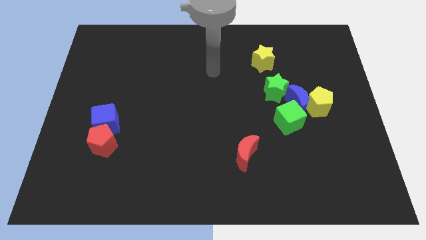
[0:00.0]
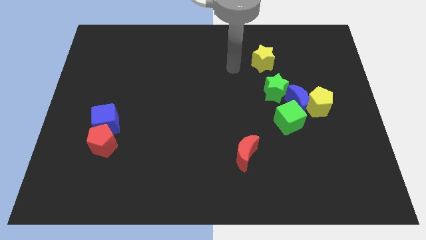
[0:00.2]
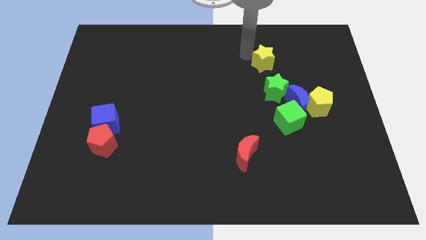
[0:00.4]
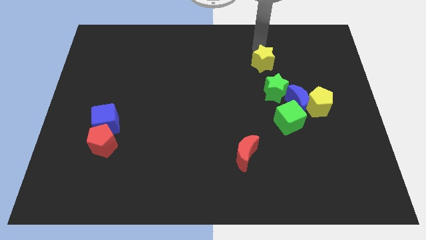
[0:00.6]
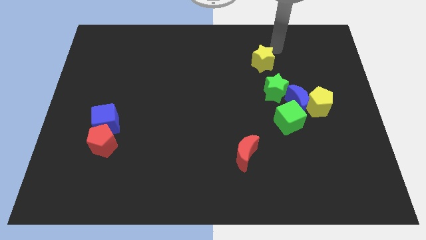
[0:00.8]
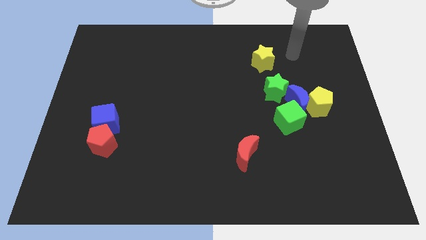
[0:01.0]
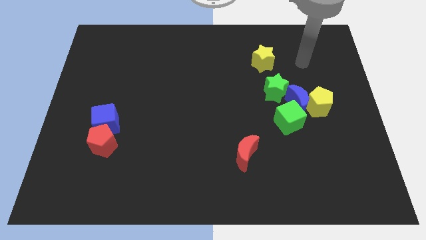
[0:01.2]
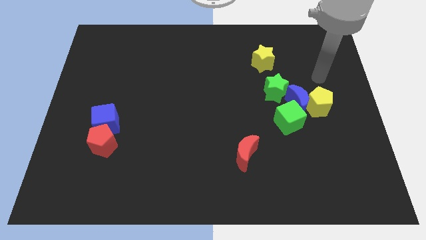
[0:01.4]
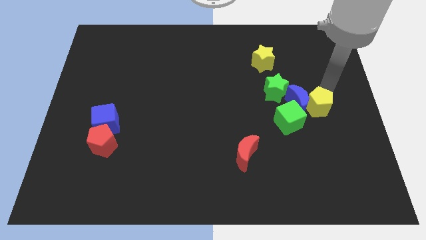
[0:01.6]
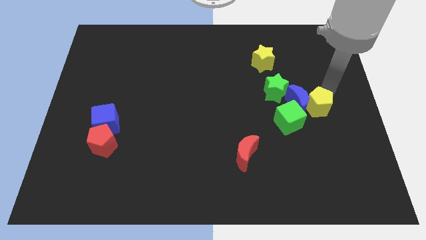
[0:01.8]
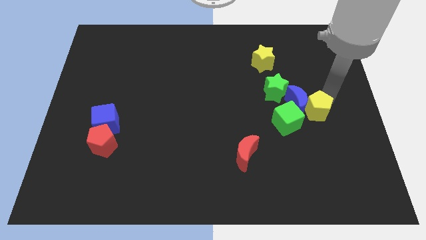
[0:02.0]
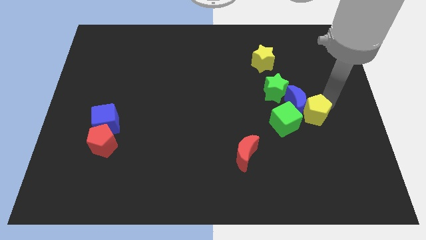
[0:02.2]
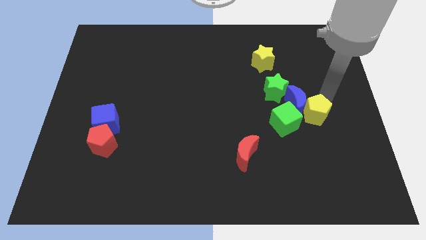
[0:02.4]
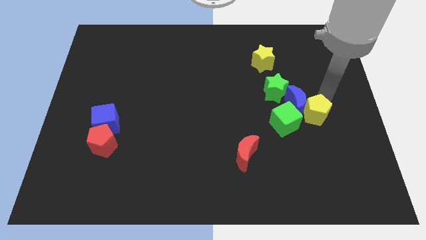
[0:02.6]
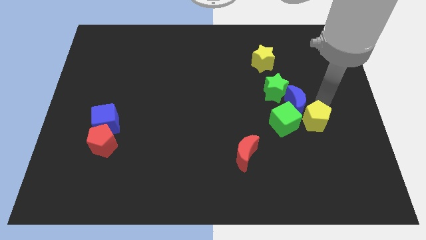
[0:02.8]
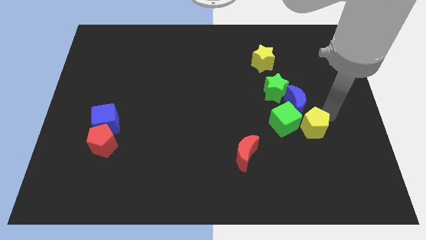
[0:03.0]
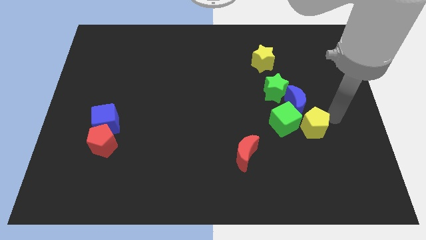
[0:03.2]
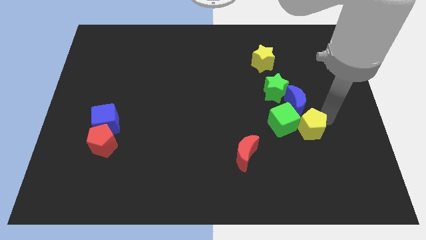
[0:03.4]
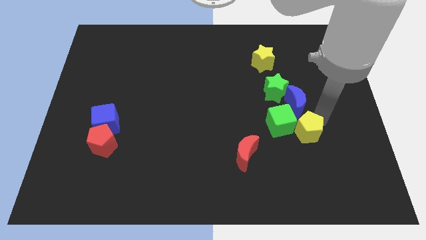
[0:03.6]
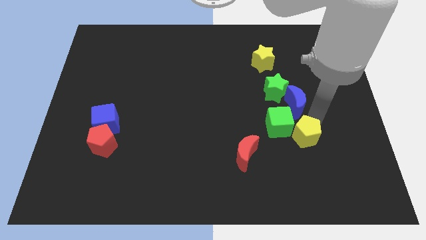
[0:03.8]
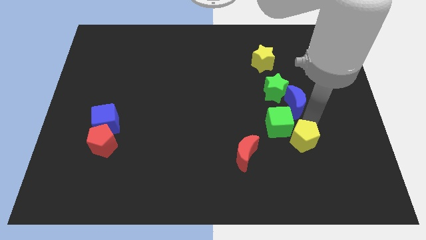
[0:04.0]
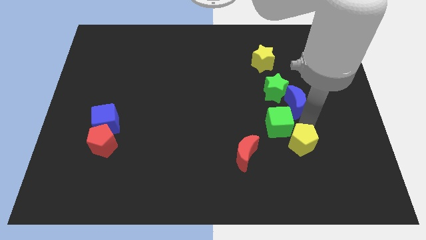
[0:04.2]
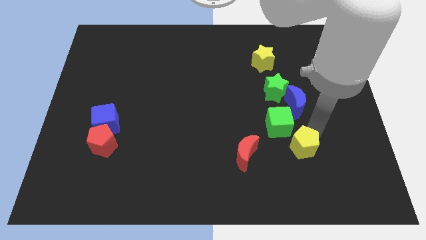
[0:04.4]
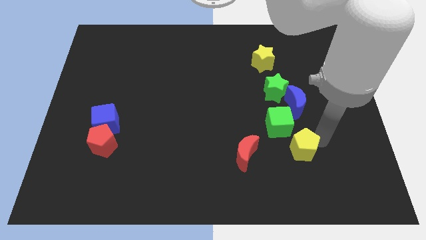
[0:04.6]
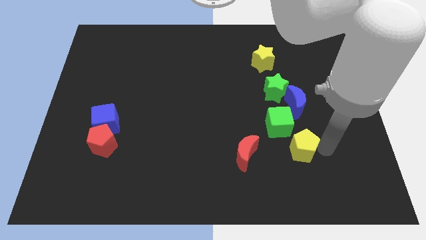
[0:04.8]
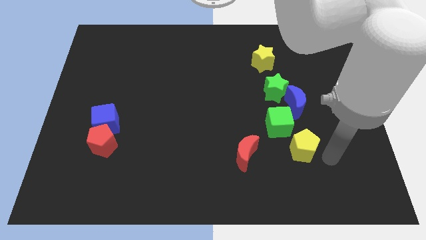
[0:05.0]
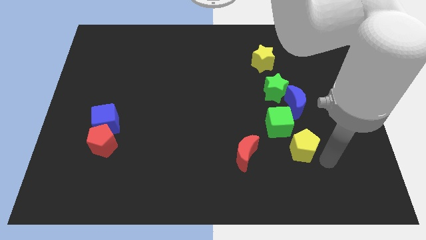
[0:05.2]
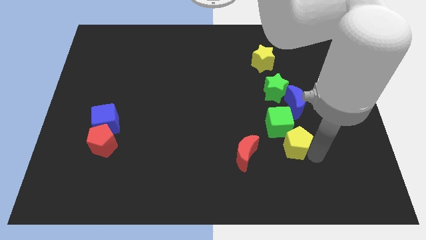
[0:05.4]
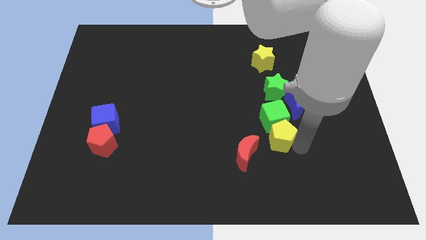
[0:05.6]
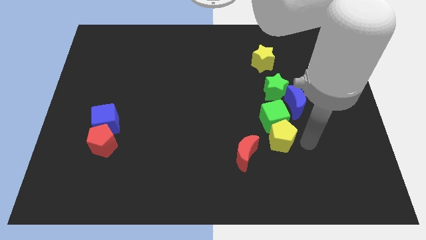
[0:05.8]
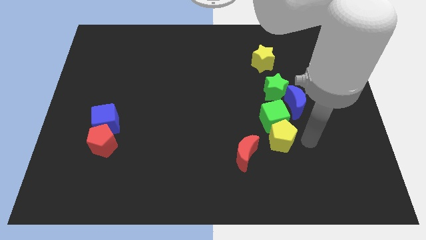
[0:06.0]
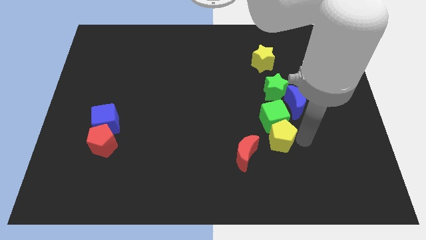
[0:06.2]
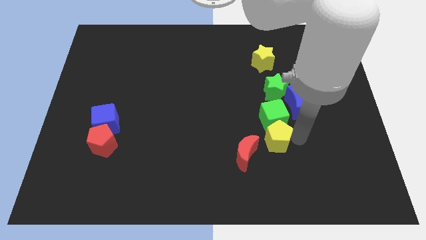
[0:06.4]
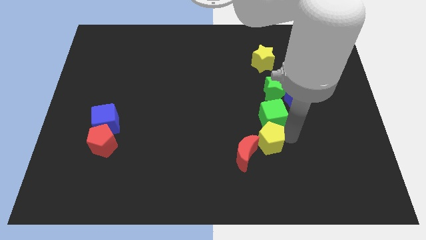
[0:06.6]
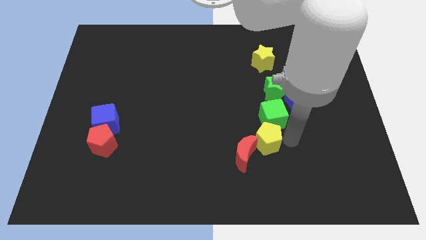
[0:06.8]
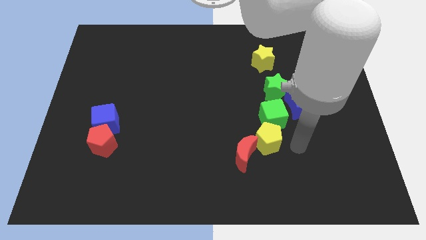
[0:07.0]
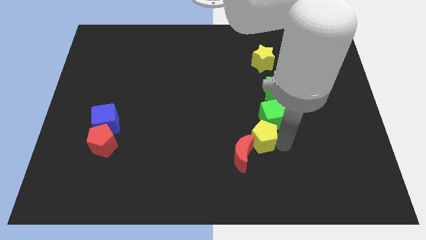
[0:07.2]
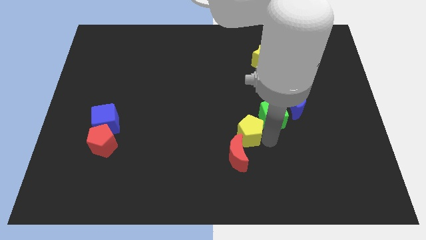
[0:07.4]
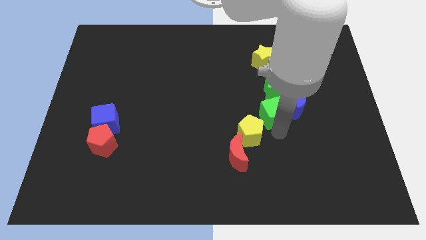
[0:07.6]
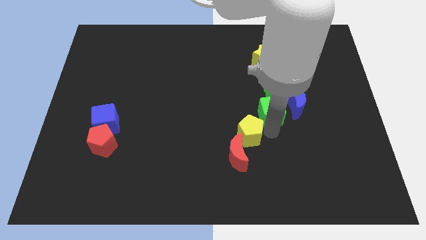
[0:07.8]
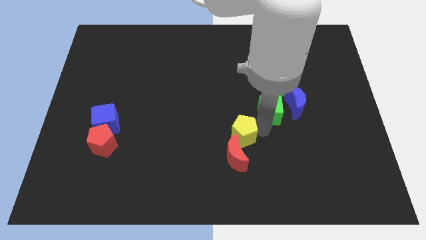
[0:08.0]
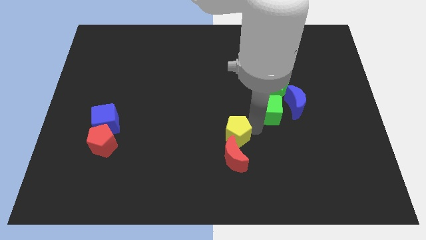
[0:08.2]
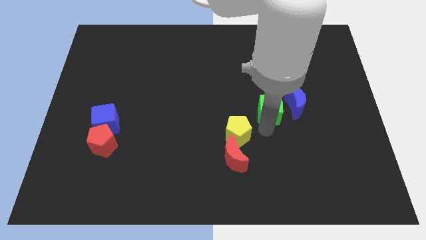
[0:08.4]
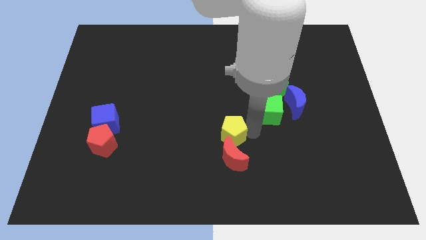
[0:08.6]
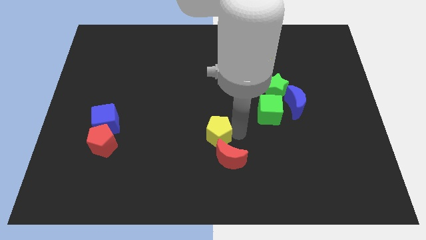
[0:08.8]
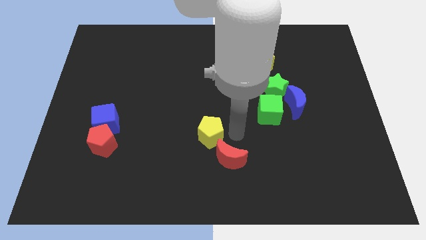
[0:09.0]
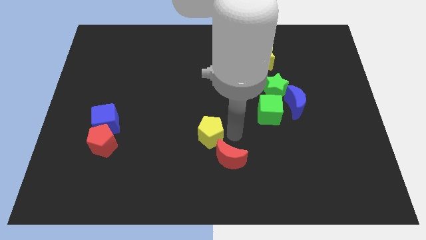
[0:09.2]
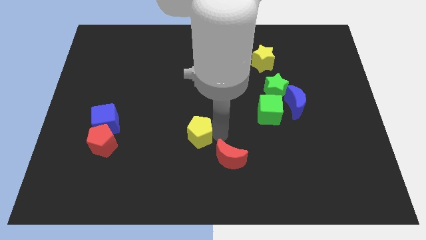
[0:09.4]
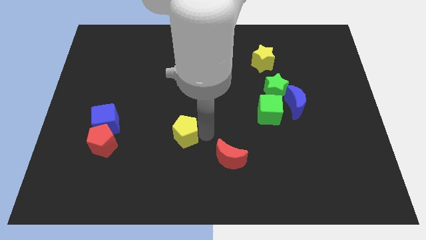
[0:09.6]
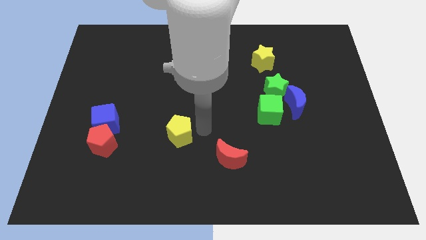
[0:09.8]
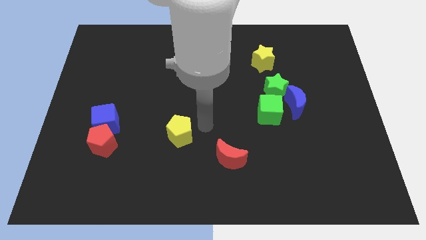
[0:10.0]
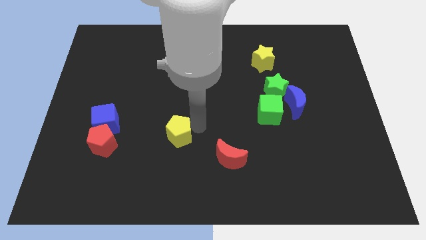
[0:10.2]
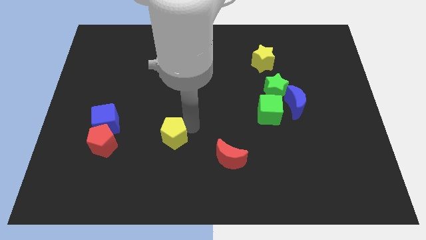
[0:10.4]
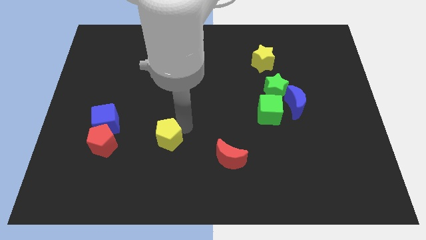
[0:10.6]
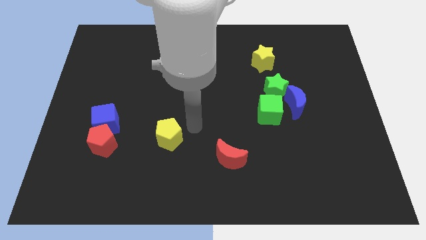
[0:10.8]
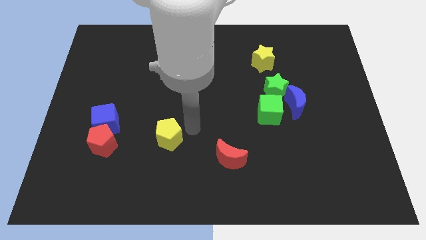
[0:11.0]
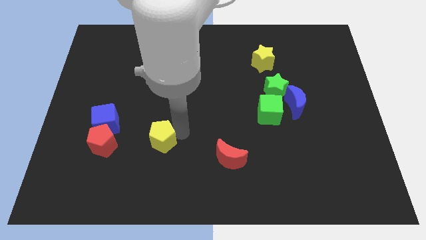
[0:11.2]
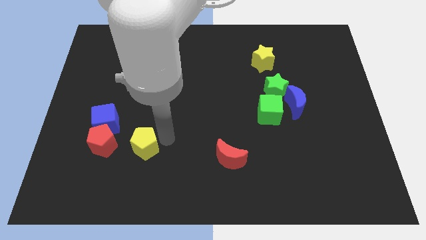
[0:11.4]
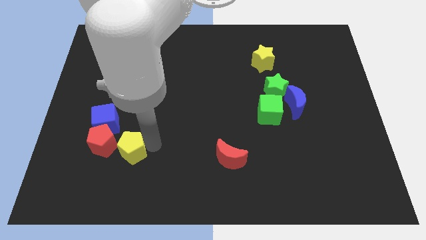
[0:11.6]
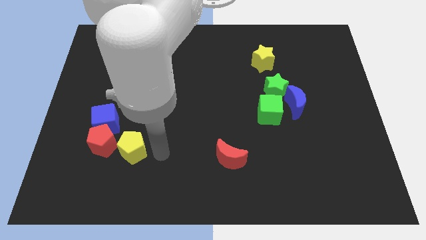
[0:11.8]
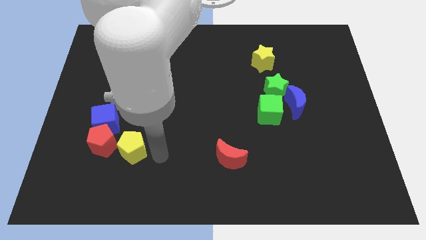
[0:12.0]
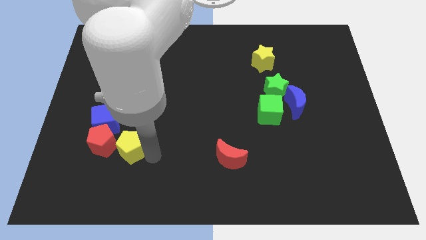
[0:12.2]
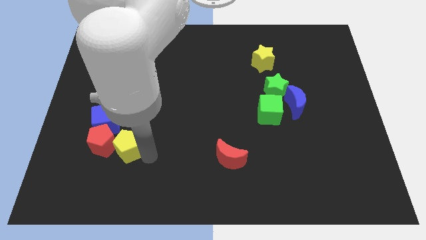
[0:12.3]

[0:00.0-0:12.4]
move the yellow pentagon towards the red pentagon

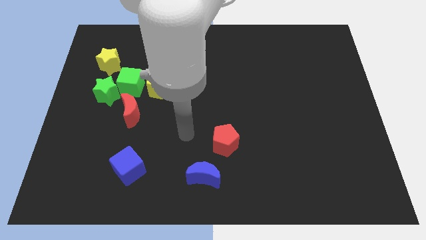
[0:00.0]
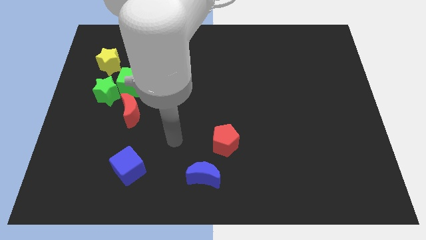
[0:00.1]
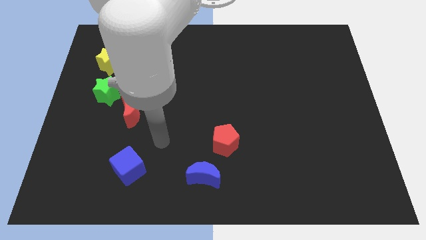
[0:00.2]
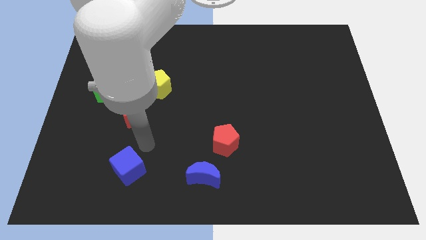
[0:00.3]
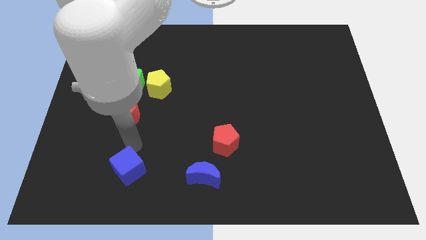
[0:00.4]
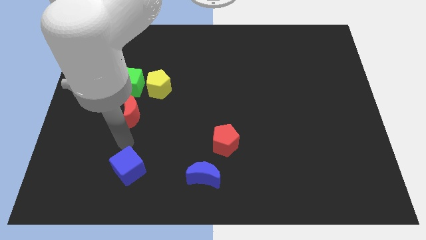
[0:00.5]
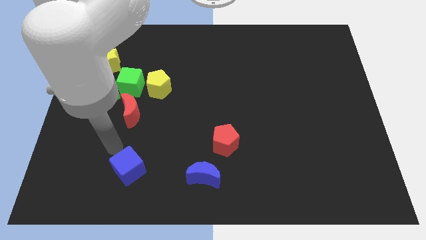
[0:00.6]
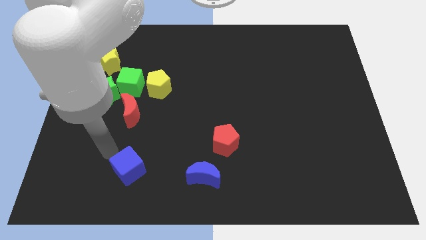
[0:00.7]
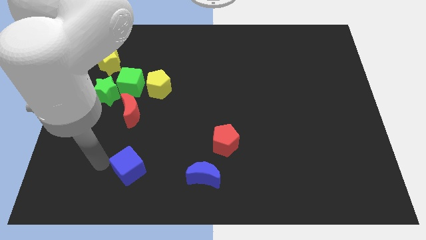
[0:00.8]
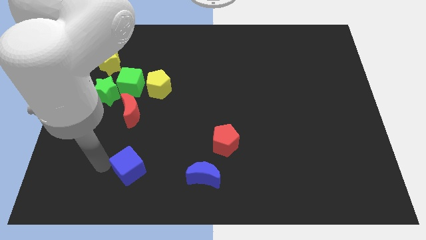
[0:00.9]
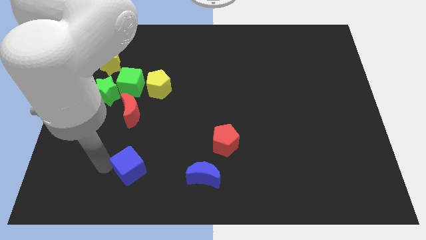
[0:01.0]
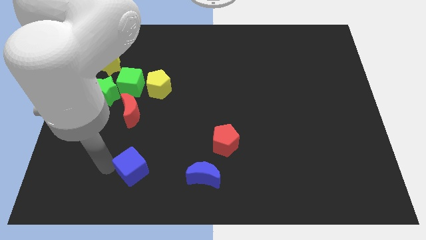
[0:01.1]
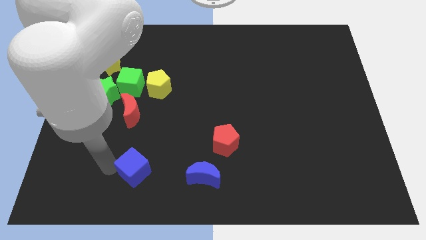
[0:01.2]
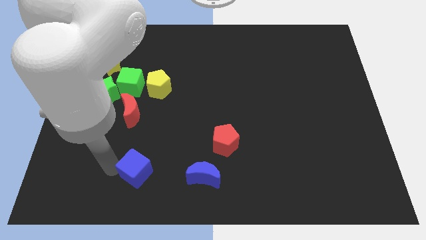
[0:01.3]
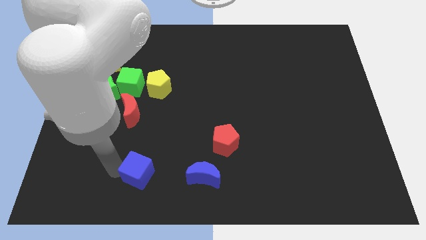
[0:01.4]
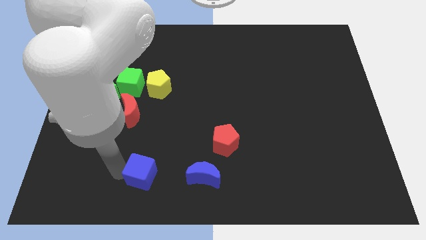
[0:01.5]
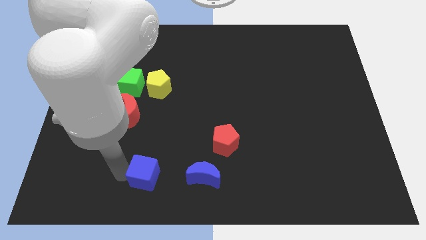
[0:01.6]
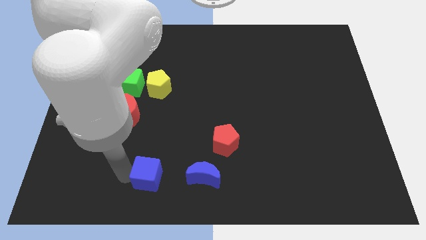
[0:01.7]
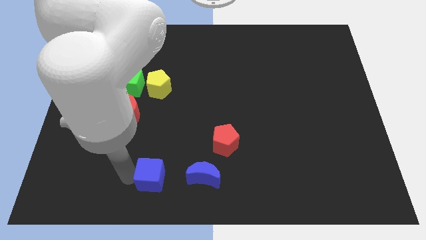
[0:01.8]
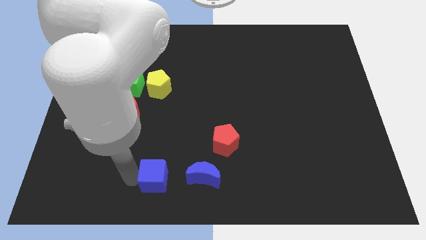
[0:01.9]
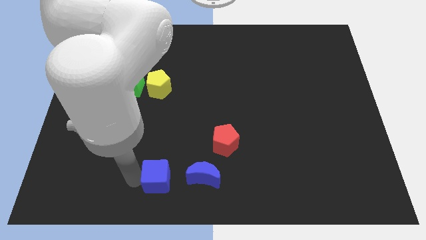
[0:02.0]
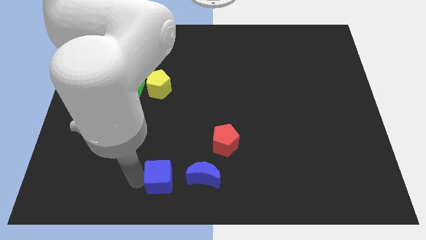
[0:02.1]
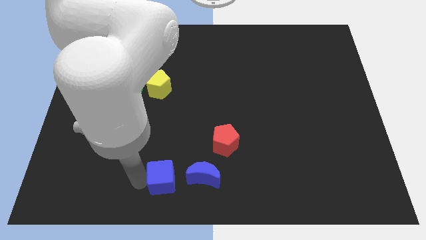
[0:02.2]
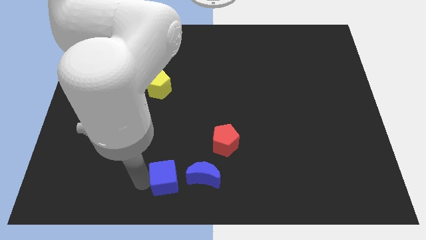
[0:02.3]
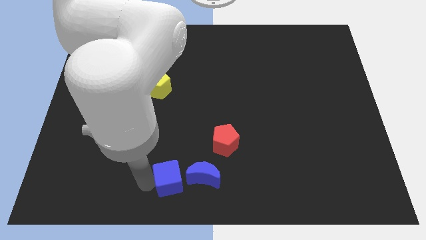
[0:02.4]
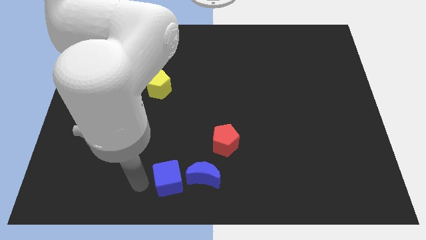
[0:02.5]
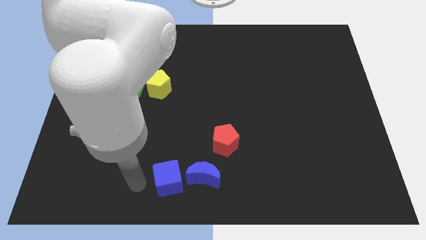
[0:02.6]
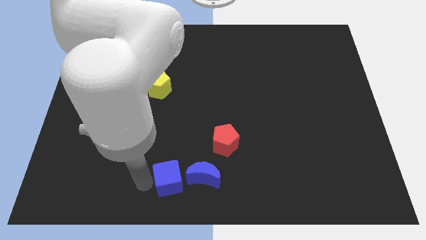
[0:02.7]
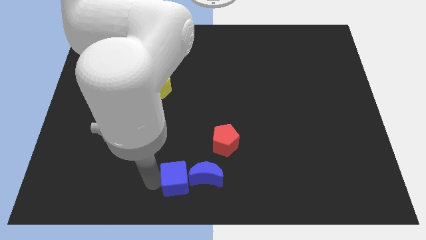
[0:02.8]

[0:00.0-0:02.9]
put the blue cube to the blue moon
